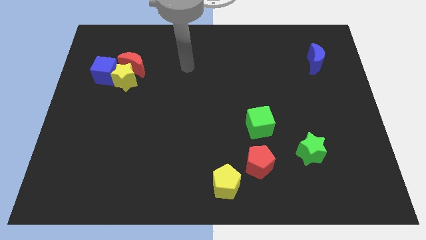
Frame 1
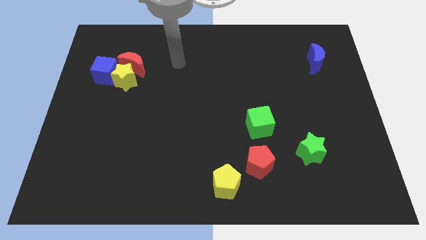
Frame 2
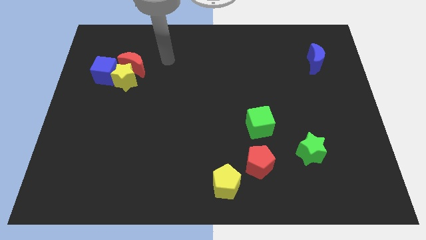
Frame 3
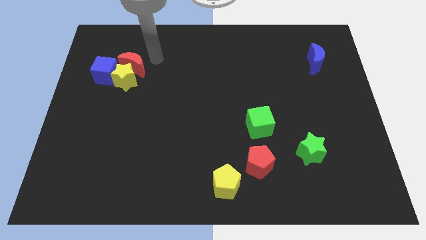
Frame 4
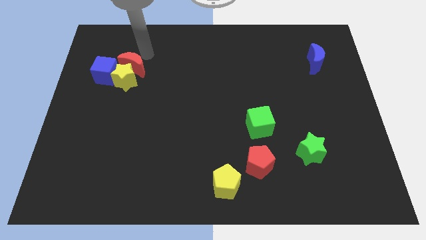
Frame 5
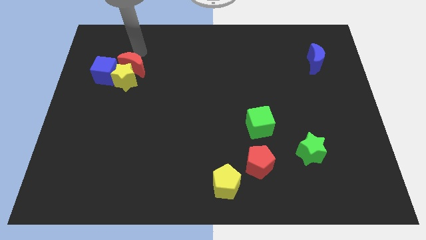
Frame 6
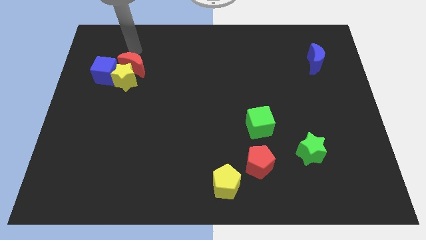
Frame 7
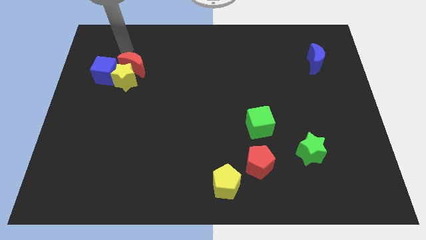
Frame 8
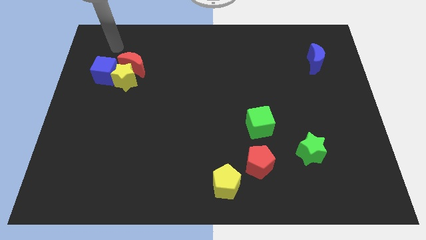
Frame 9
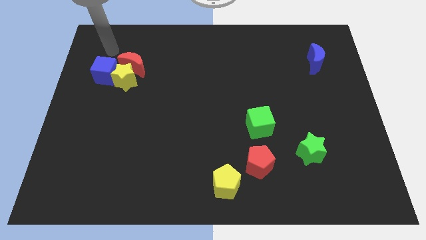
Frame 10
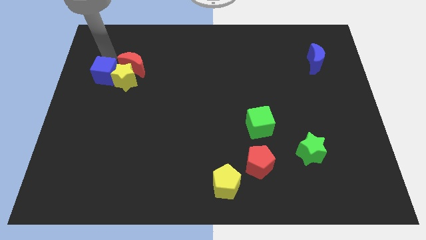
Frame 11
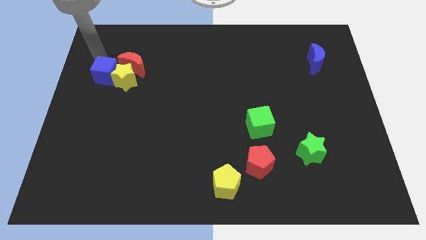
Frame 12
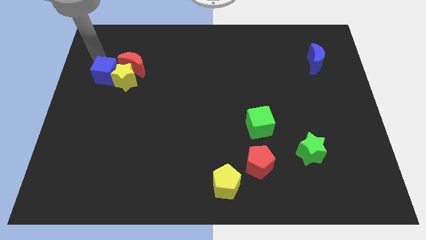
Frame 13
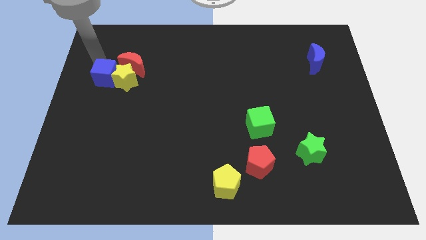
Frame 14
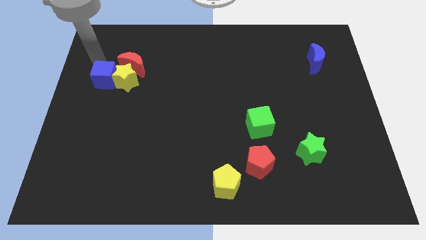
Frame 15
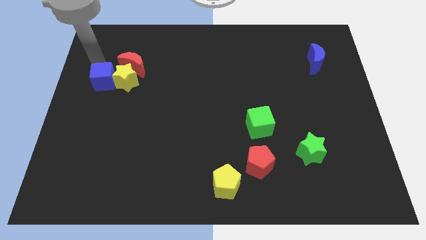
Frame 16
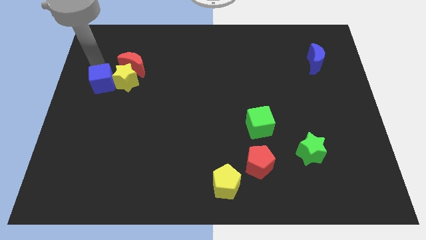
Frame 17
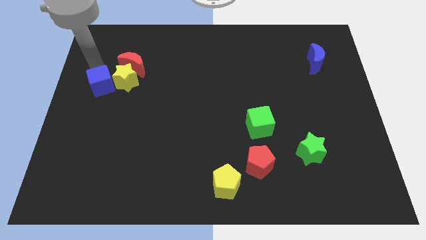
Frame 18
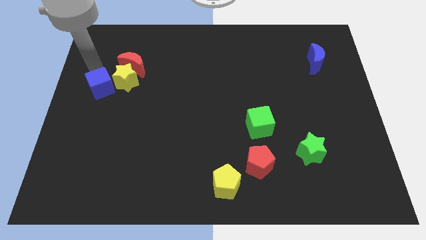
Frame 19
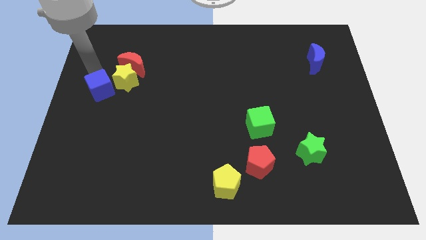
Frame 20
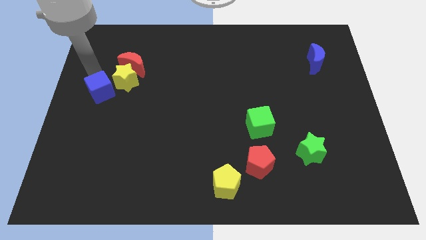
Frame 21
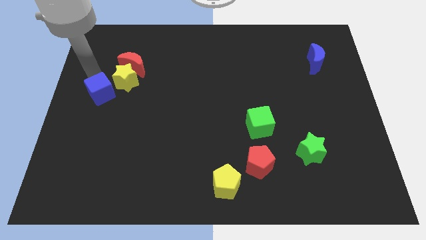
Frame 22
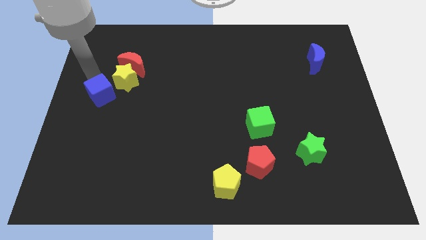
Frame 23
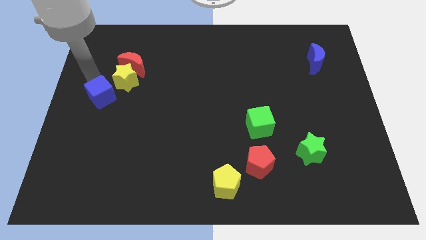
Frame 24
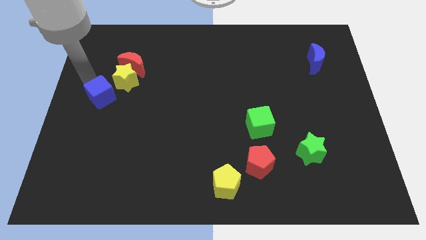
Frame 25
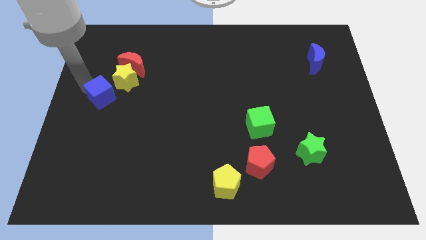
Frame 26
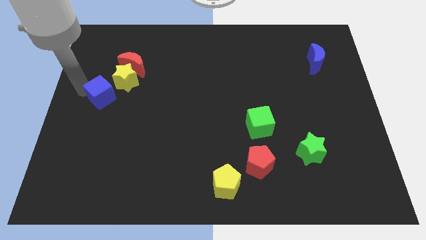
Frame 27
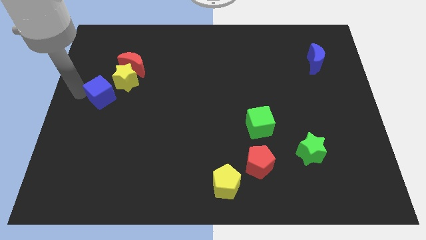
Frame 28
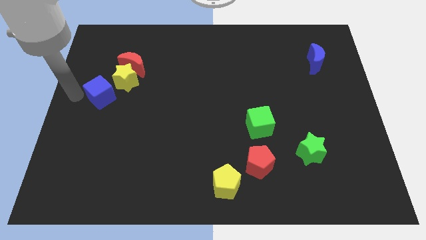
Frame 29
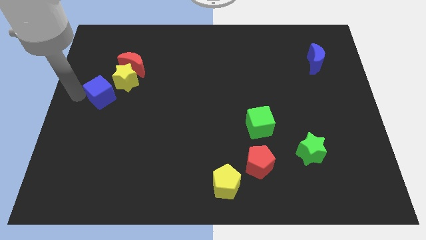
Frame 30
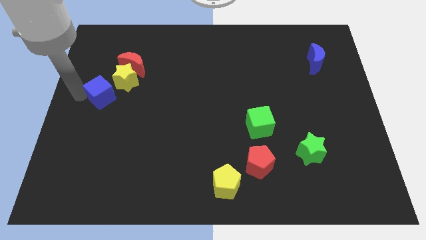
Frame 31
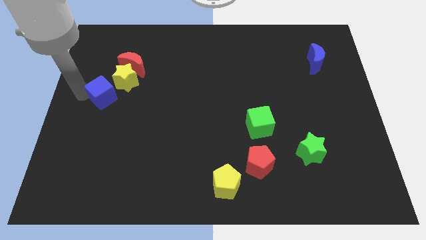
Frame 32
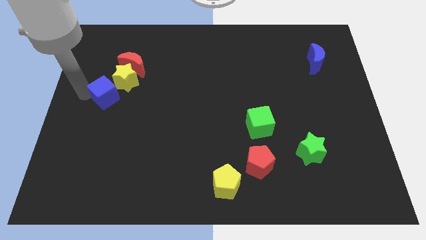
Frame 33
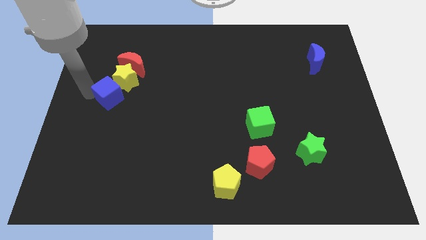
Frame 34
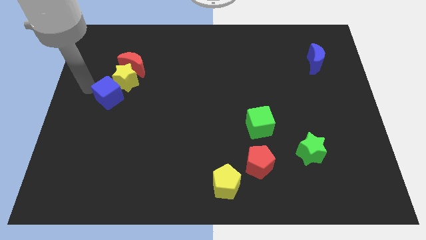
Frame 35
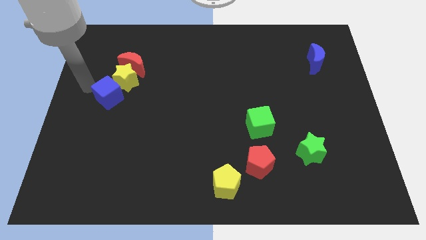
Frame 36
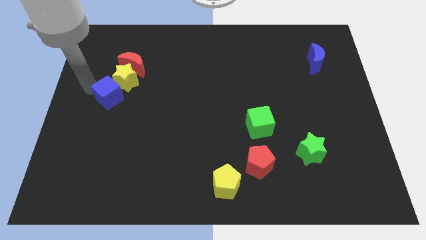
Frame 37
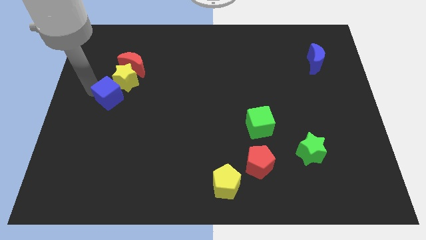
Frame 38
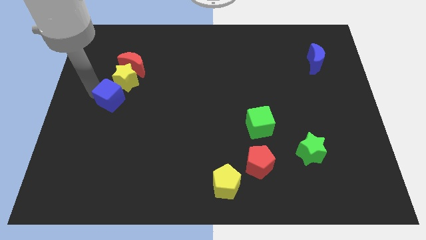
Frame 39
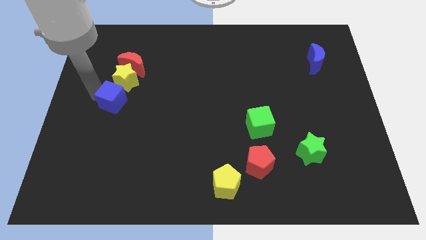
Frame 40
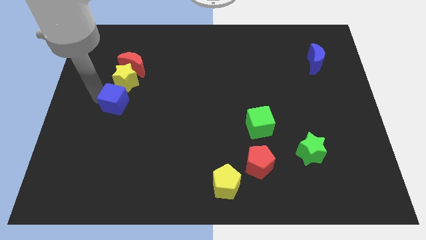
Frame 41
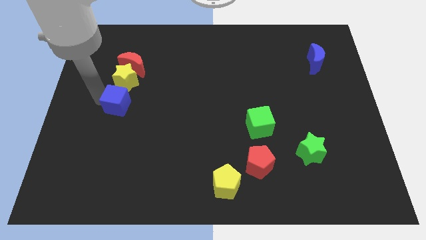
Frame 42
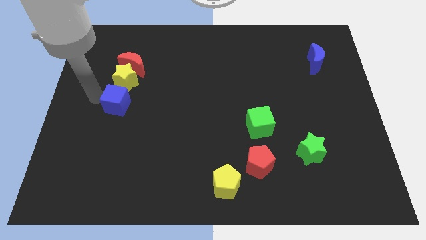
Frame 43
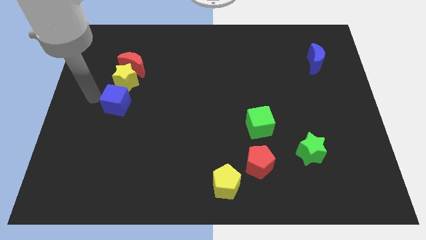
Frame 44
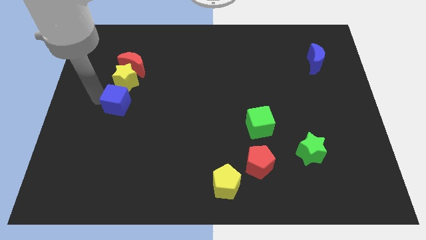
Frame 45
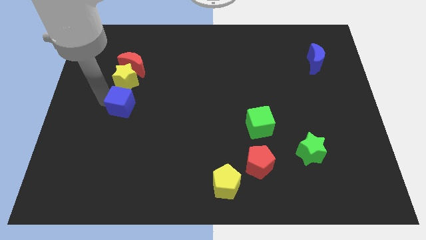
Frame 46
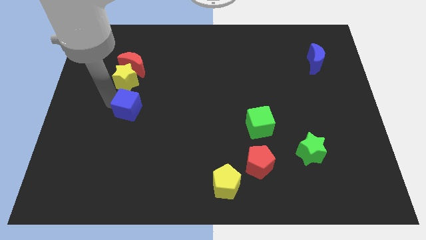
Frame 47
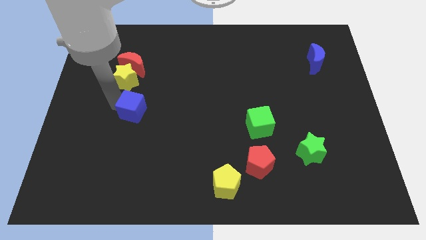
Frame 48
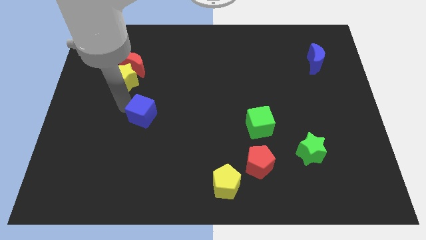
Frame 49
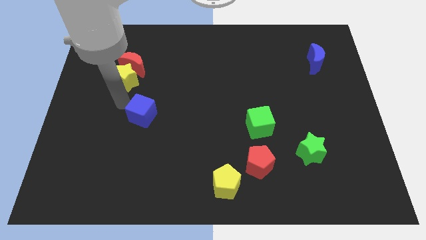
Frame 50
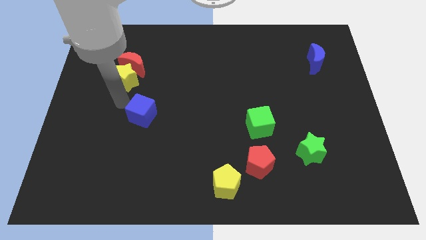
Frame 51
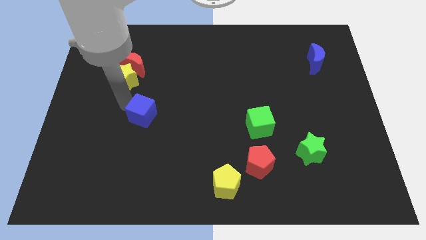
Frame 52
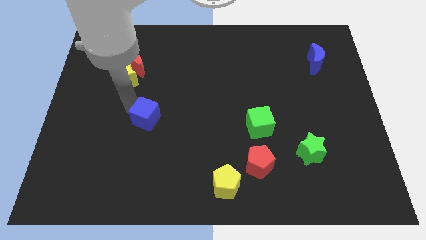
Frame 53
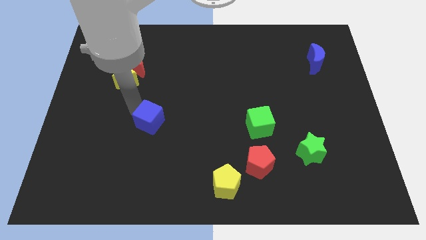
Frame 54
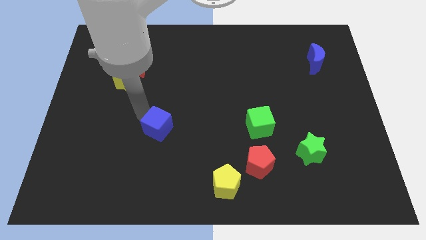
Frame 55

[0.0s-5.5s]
slide the blue cube downwards and then to the right

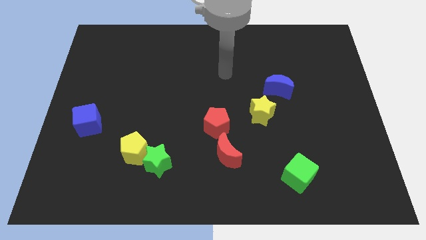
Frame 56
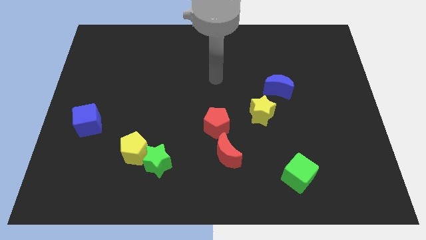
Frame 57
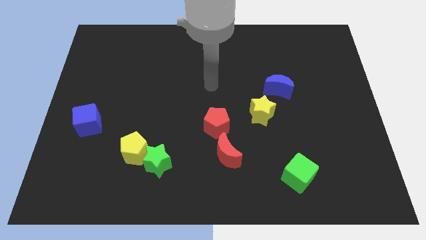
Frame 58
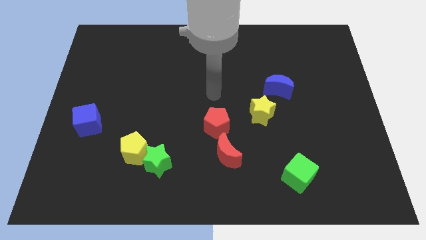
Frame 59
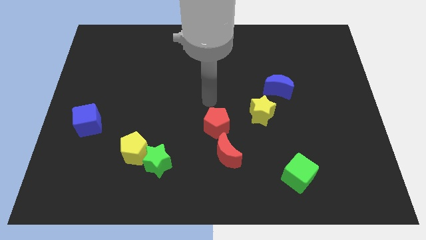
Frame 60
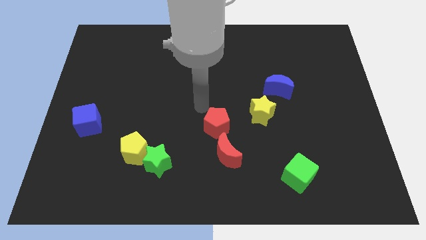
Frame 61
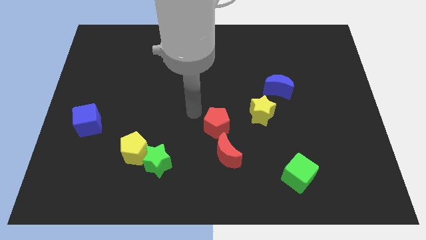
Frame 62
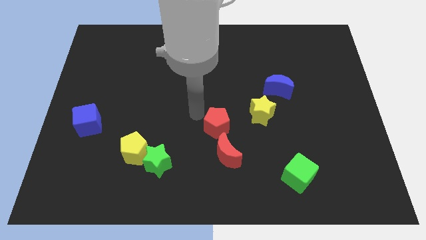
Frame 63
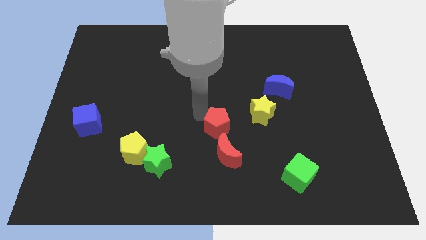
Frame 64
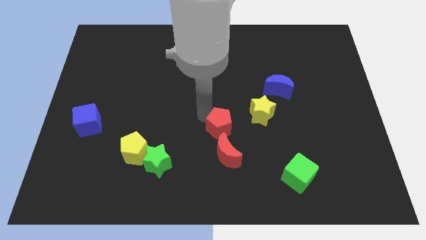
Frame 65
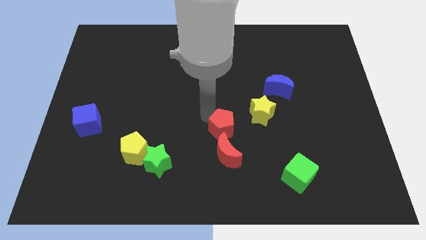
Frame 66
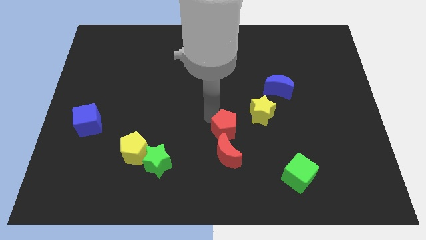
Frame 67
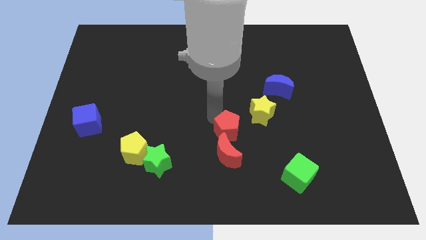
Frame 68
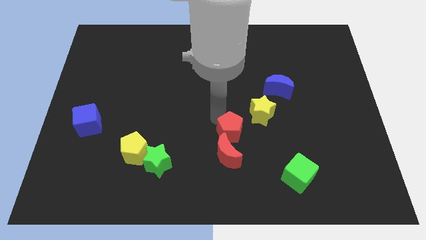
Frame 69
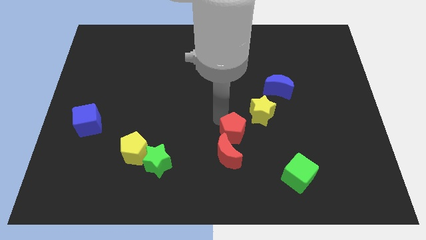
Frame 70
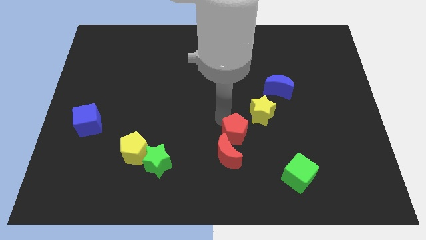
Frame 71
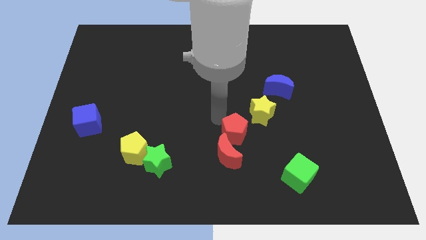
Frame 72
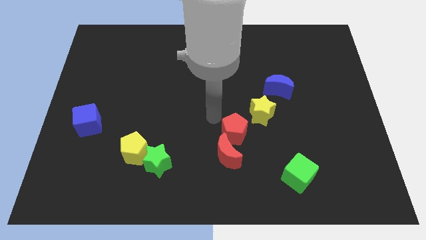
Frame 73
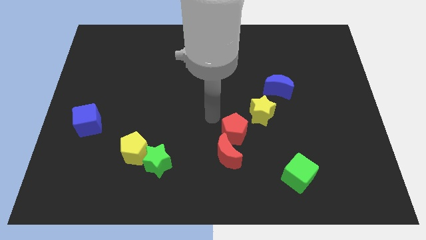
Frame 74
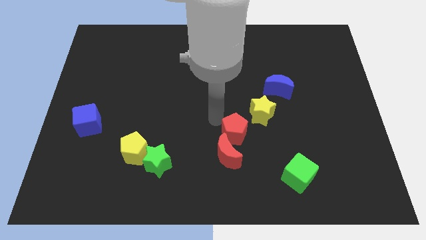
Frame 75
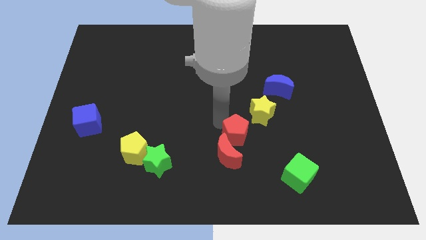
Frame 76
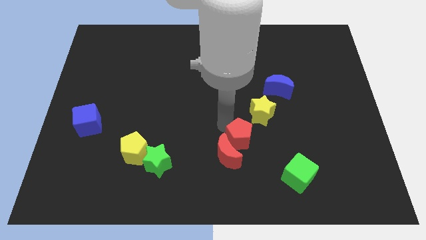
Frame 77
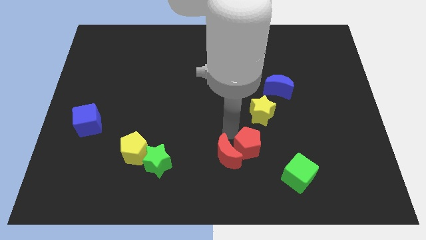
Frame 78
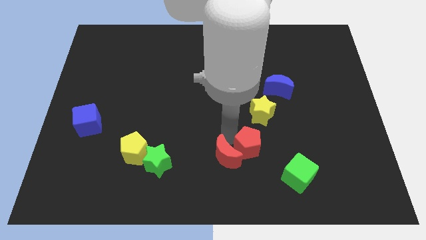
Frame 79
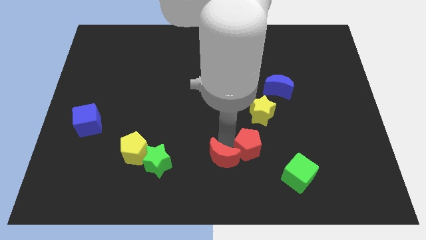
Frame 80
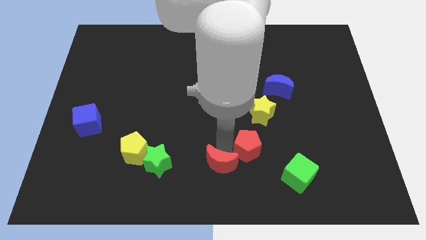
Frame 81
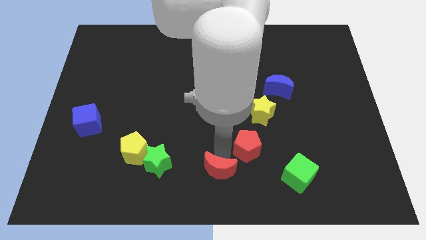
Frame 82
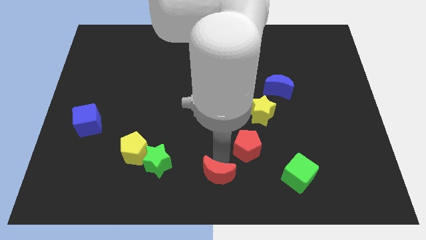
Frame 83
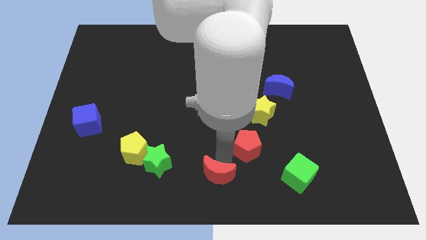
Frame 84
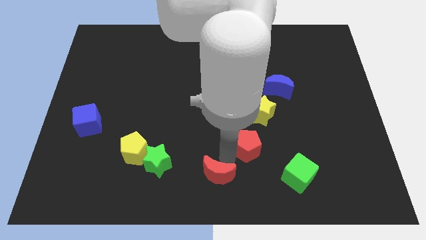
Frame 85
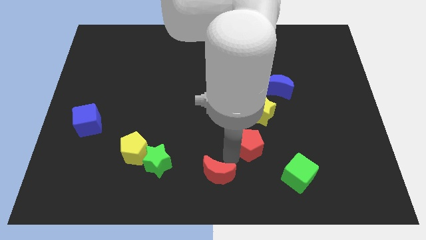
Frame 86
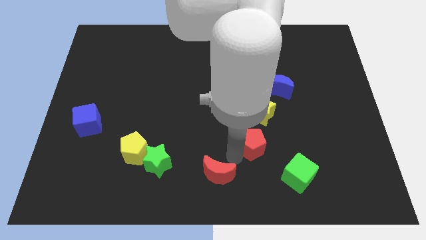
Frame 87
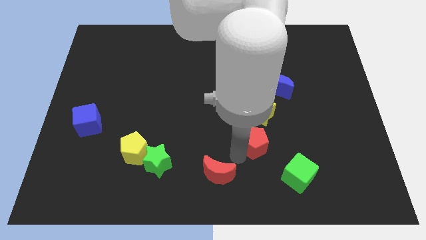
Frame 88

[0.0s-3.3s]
slightly move the red pentagon right
